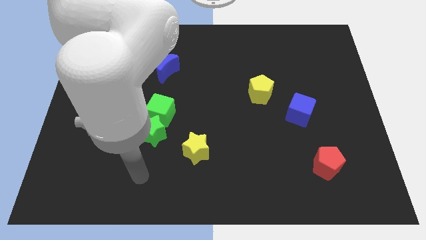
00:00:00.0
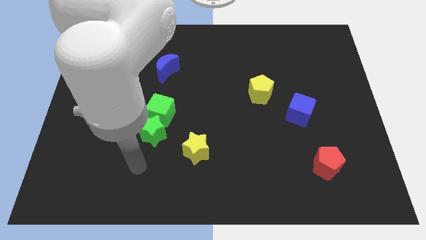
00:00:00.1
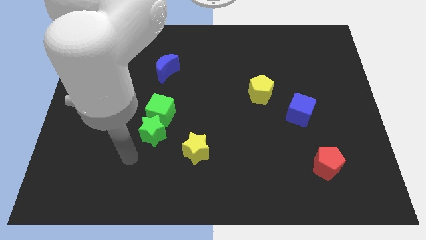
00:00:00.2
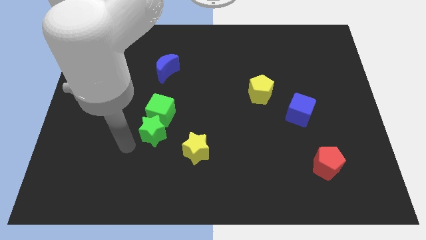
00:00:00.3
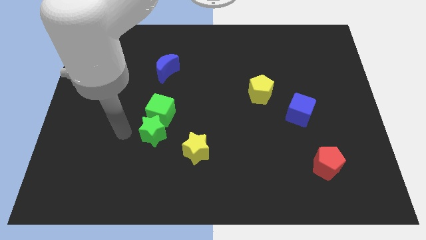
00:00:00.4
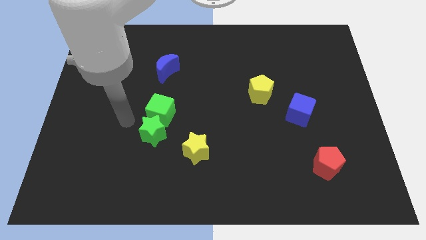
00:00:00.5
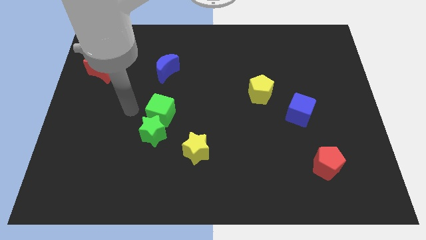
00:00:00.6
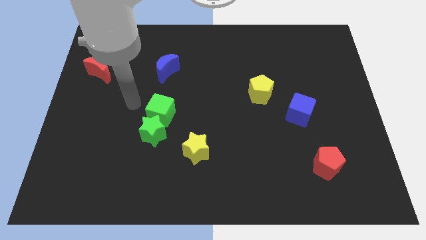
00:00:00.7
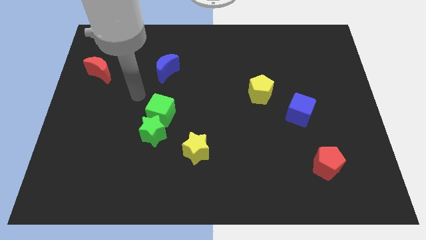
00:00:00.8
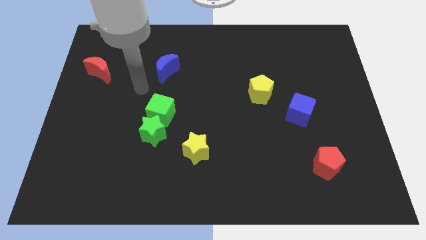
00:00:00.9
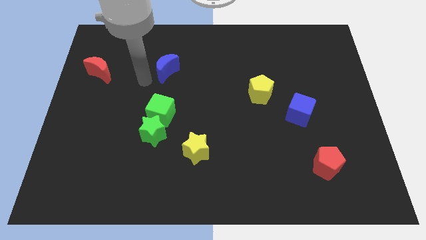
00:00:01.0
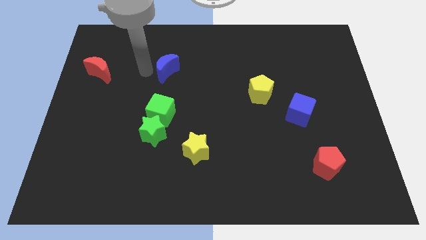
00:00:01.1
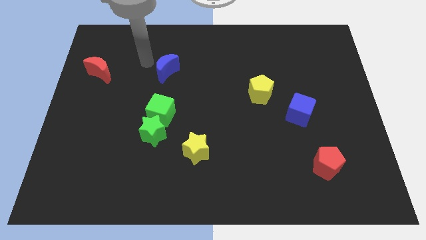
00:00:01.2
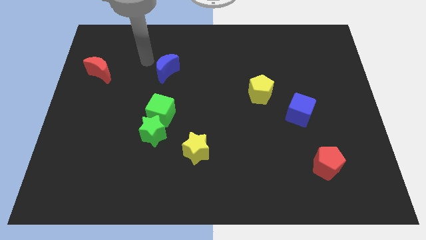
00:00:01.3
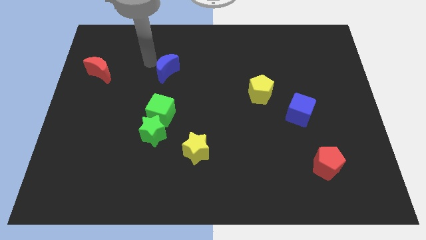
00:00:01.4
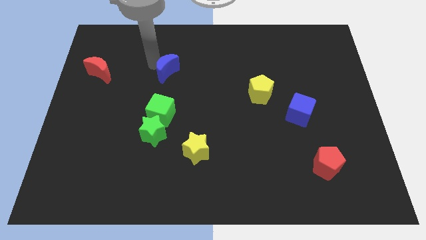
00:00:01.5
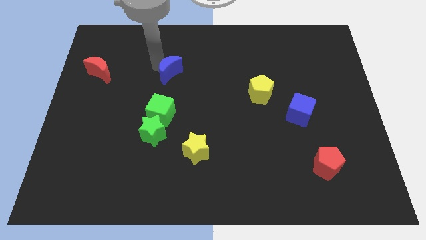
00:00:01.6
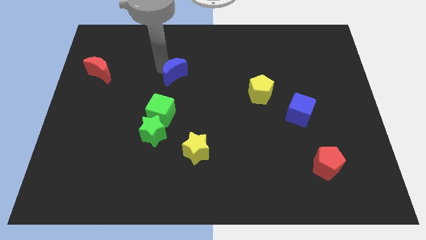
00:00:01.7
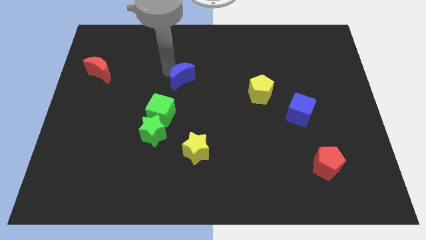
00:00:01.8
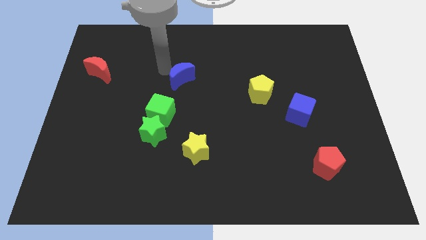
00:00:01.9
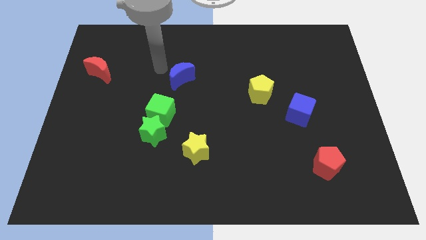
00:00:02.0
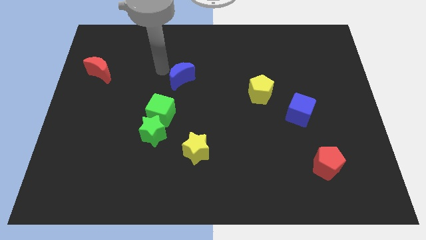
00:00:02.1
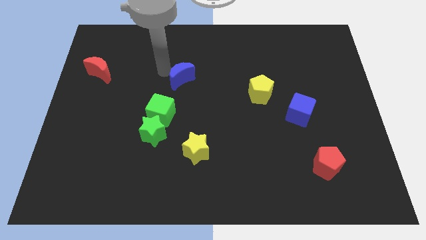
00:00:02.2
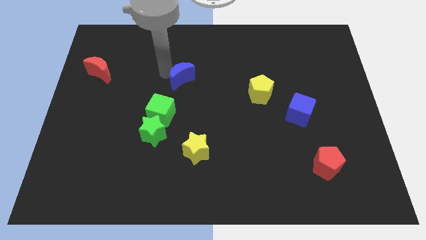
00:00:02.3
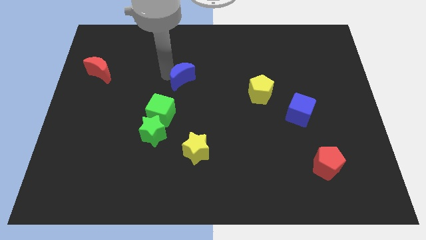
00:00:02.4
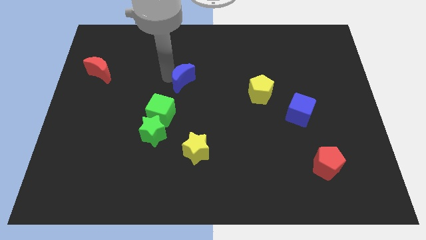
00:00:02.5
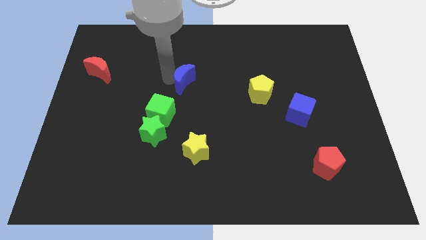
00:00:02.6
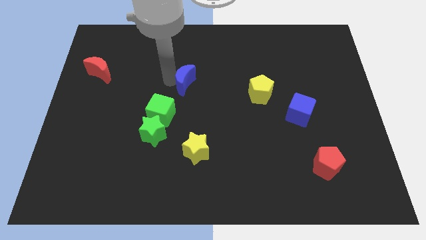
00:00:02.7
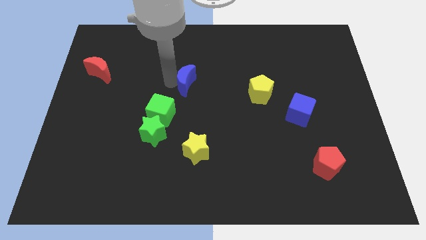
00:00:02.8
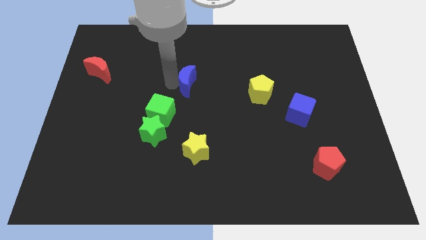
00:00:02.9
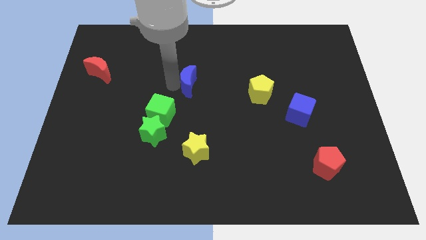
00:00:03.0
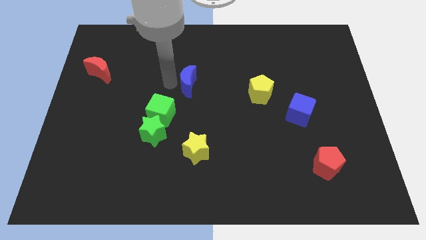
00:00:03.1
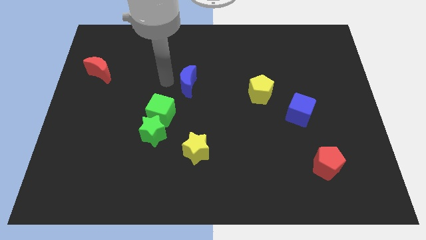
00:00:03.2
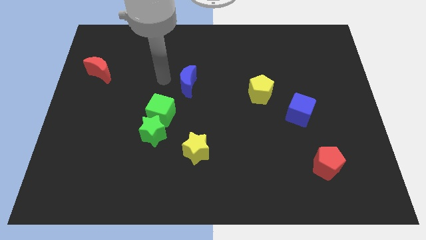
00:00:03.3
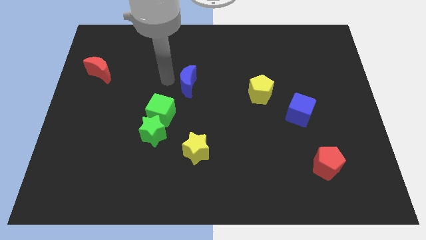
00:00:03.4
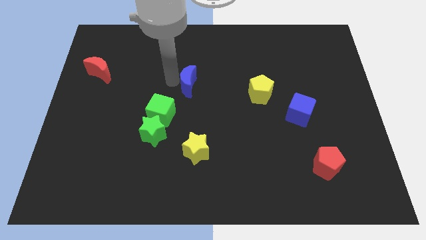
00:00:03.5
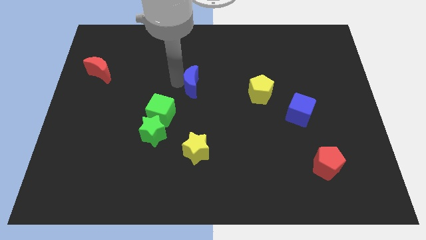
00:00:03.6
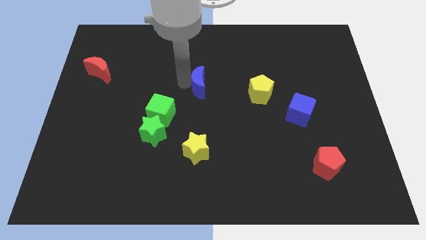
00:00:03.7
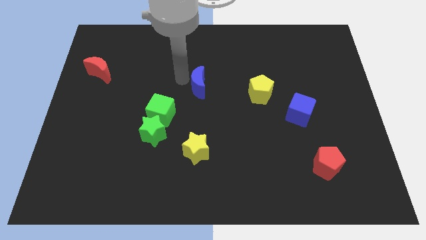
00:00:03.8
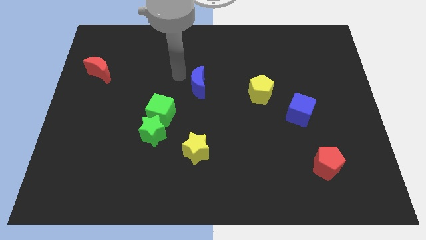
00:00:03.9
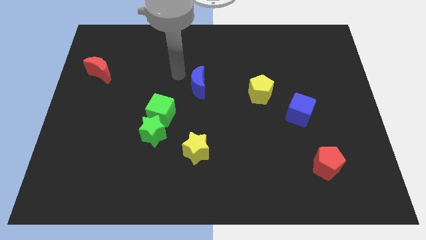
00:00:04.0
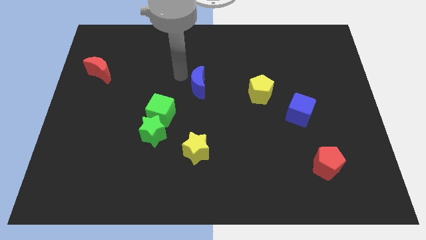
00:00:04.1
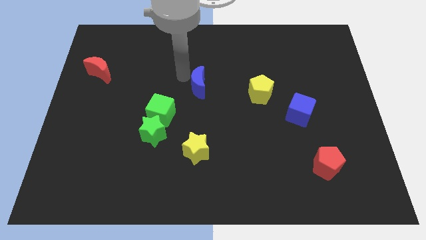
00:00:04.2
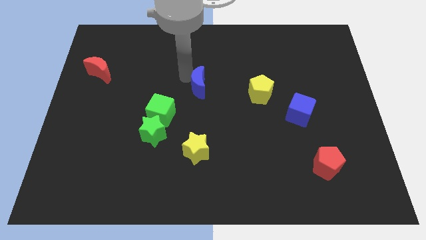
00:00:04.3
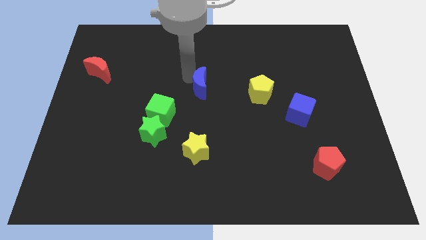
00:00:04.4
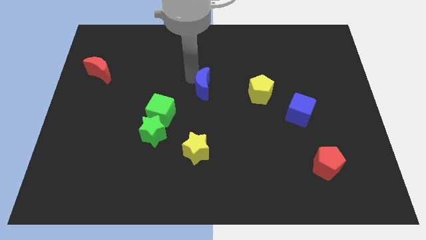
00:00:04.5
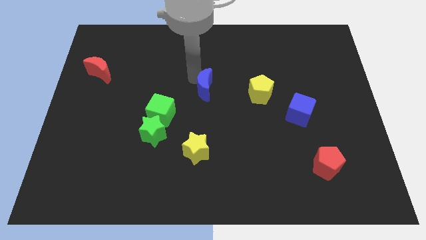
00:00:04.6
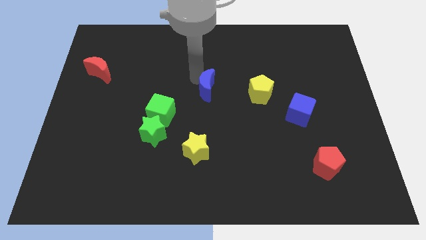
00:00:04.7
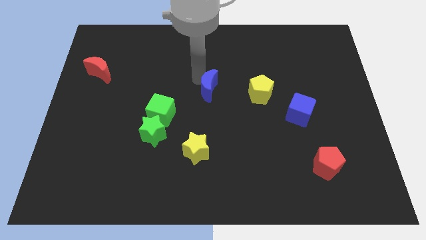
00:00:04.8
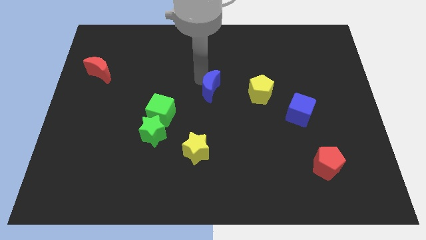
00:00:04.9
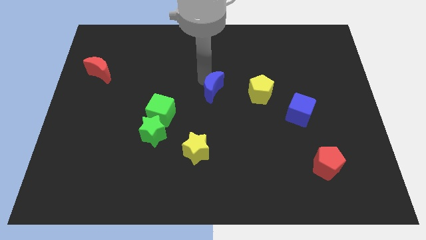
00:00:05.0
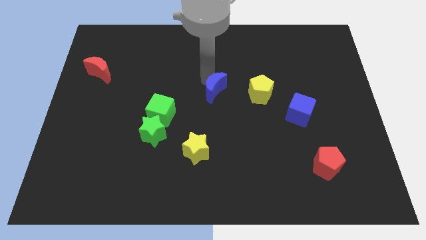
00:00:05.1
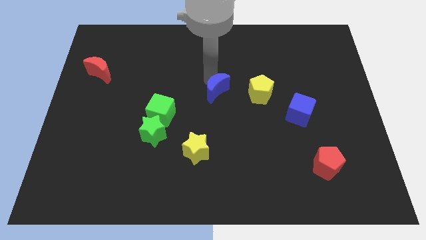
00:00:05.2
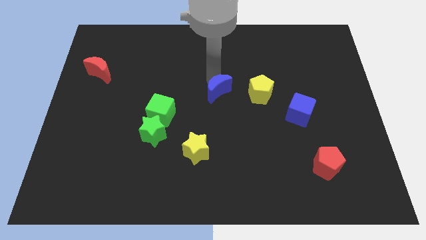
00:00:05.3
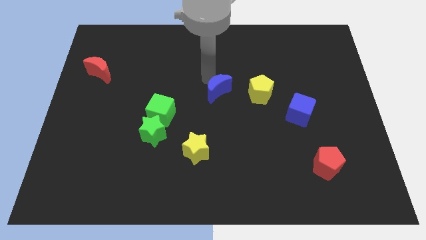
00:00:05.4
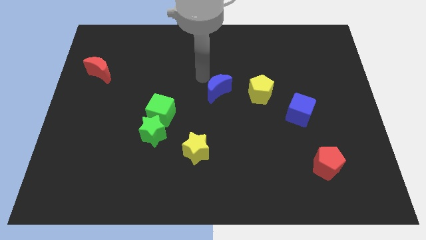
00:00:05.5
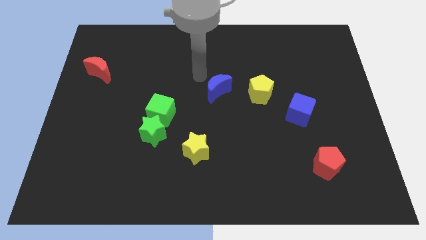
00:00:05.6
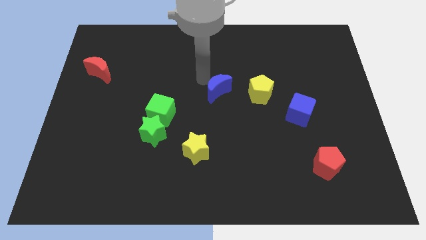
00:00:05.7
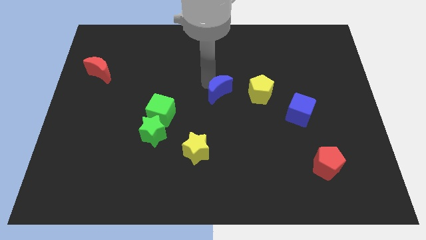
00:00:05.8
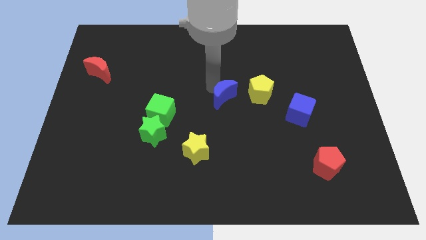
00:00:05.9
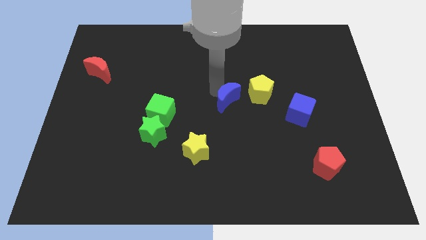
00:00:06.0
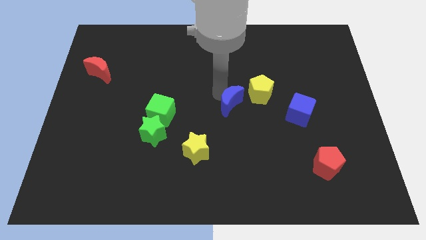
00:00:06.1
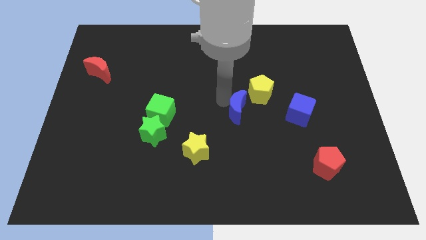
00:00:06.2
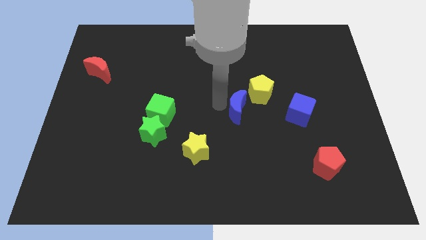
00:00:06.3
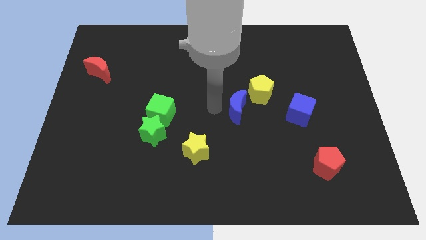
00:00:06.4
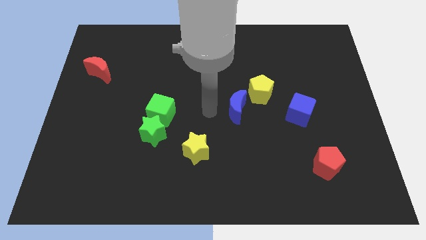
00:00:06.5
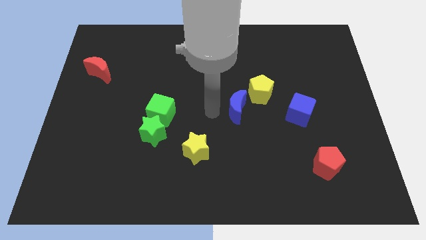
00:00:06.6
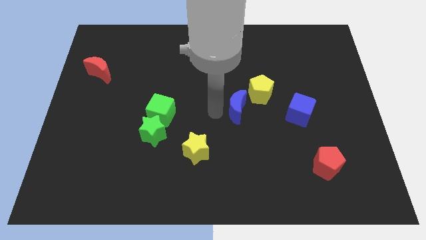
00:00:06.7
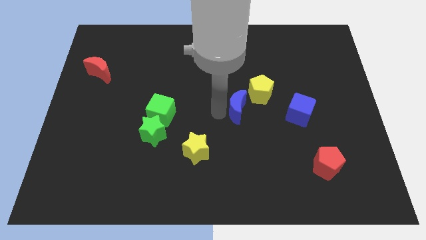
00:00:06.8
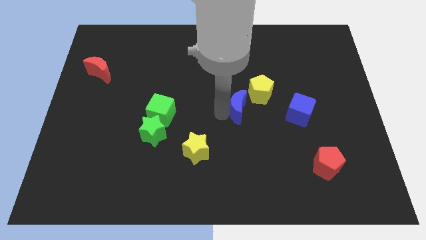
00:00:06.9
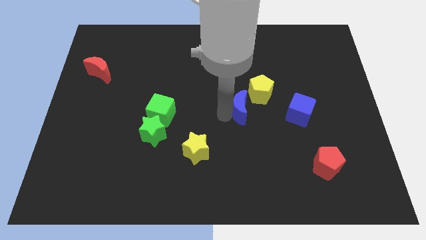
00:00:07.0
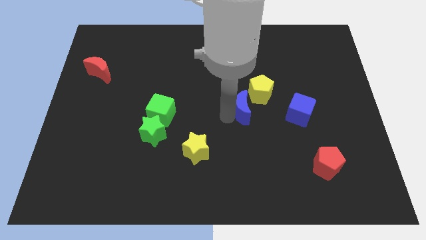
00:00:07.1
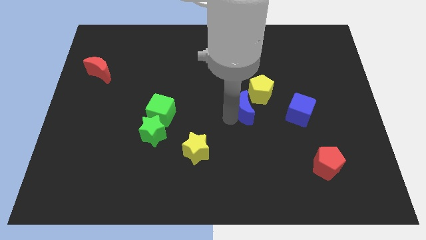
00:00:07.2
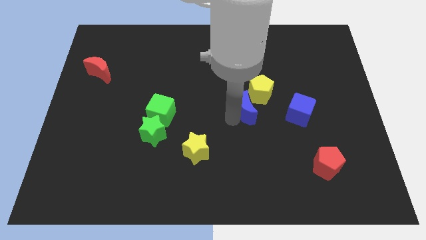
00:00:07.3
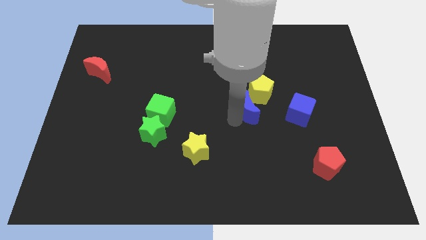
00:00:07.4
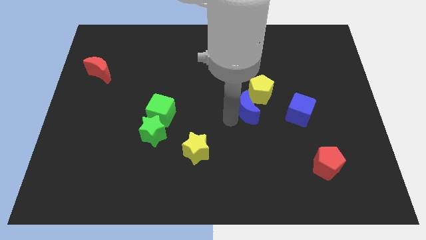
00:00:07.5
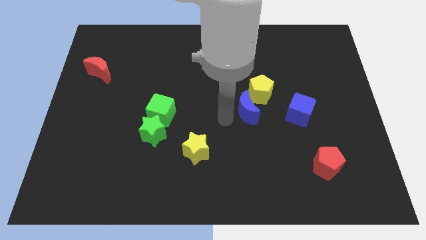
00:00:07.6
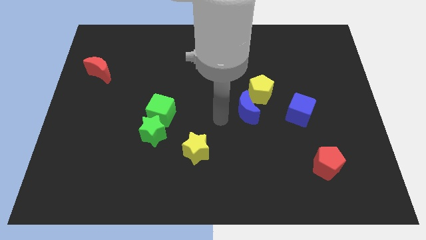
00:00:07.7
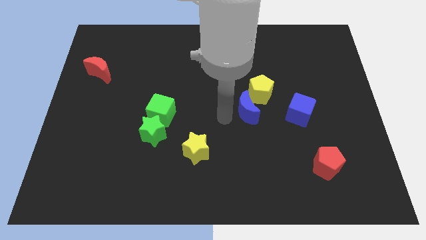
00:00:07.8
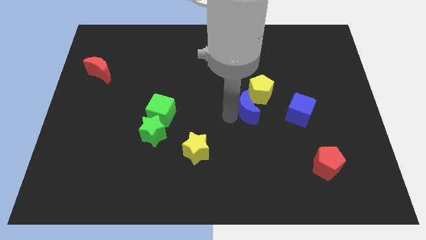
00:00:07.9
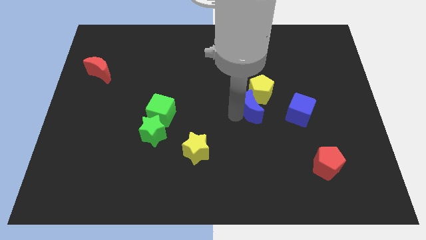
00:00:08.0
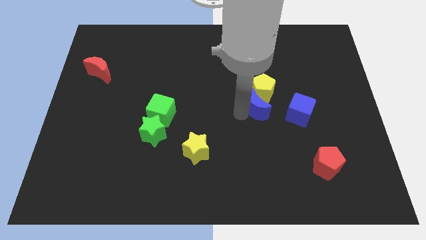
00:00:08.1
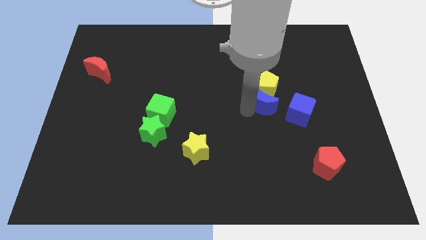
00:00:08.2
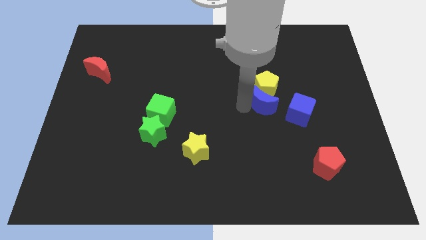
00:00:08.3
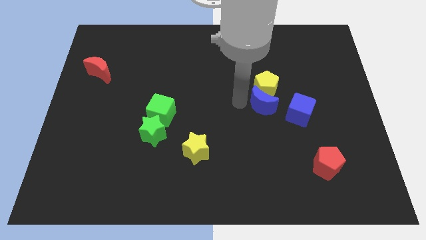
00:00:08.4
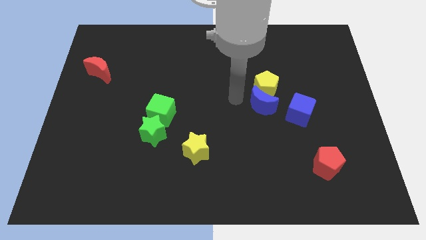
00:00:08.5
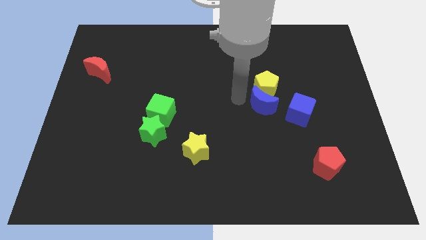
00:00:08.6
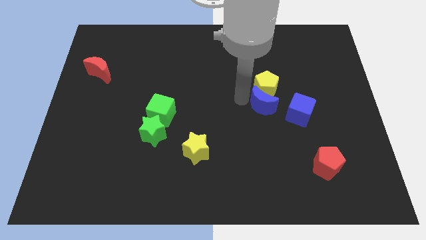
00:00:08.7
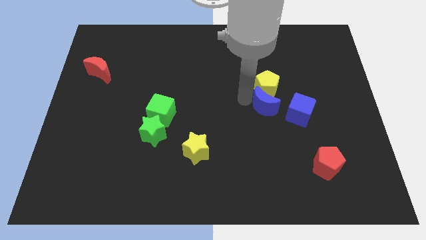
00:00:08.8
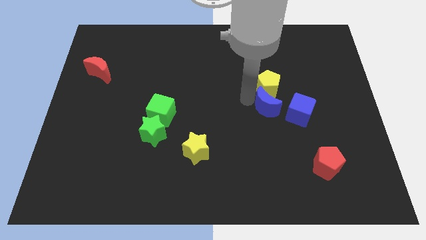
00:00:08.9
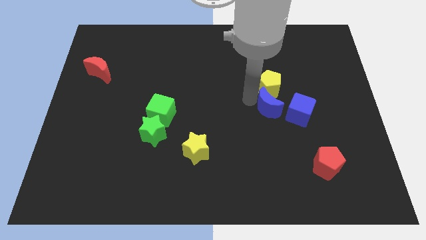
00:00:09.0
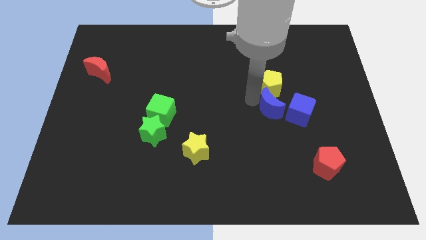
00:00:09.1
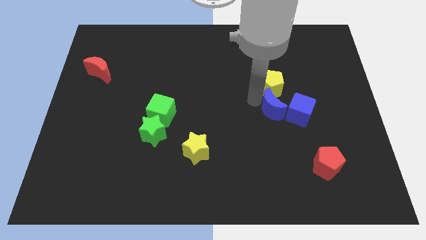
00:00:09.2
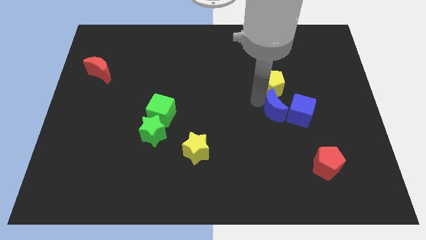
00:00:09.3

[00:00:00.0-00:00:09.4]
push the blue moon next to the blue cube
